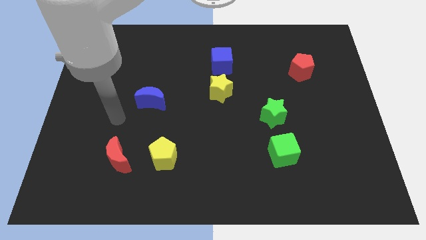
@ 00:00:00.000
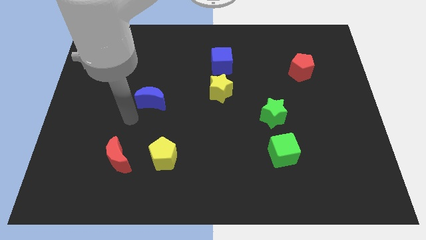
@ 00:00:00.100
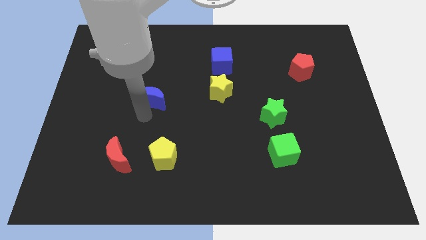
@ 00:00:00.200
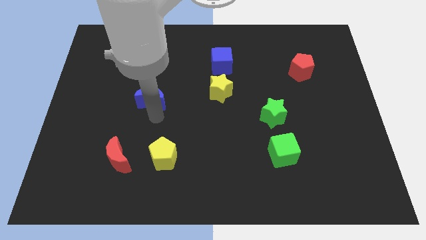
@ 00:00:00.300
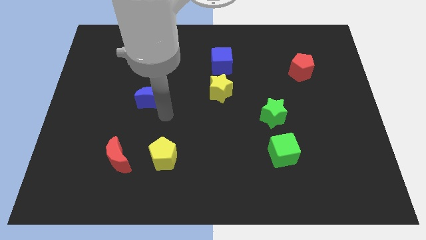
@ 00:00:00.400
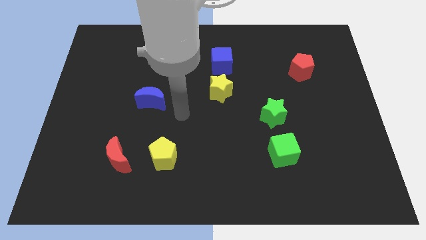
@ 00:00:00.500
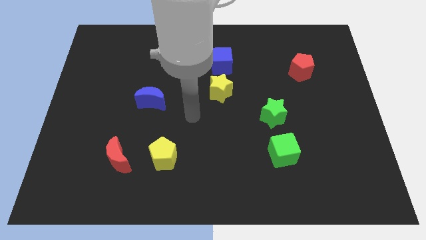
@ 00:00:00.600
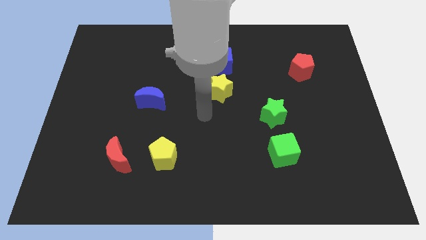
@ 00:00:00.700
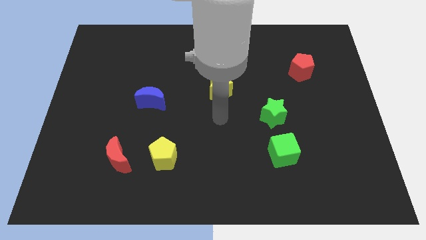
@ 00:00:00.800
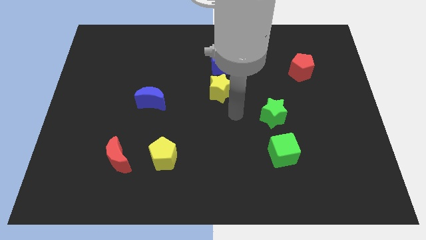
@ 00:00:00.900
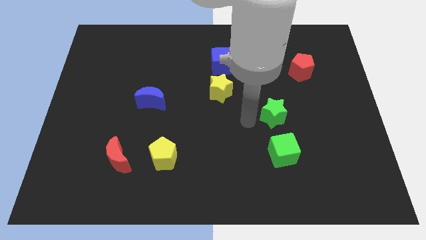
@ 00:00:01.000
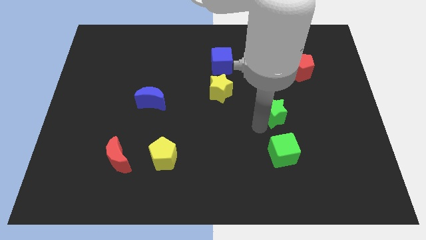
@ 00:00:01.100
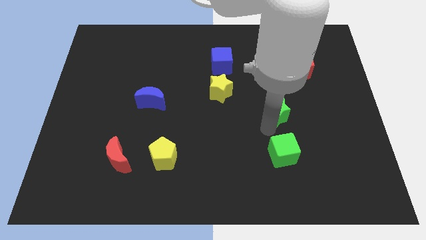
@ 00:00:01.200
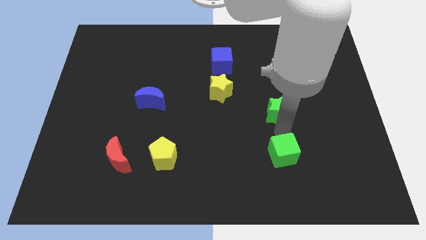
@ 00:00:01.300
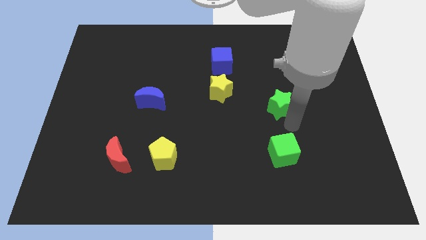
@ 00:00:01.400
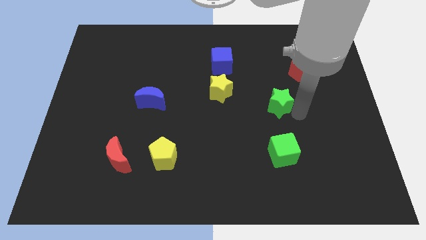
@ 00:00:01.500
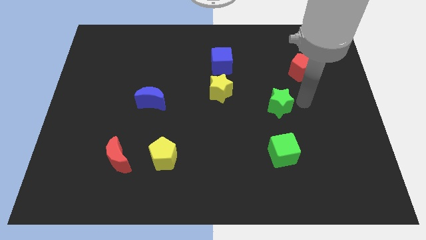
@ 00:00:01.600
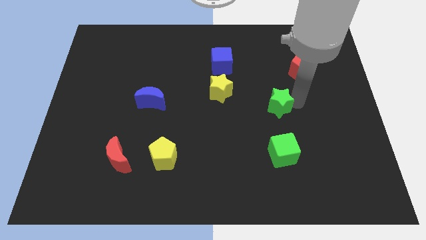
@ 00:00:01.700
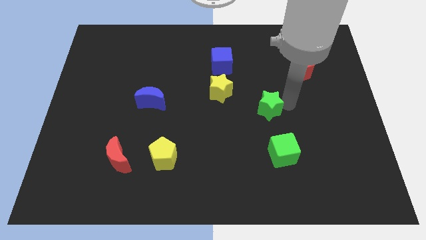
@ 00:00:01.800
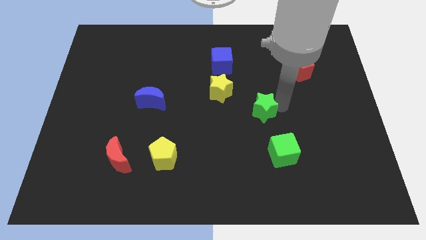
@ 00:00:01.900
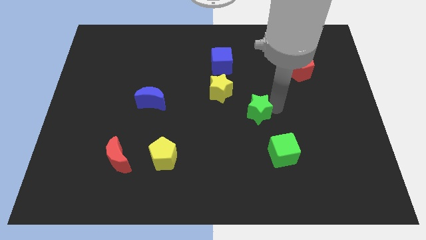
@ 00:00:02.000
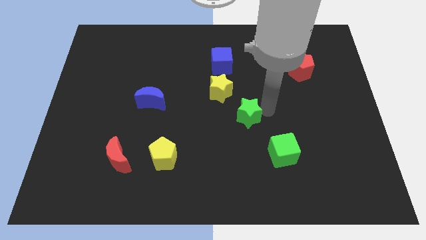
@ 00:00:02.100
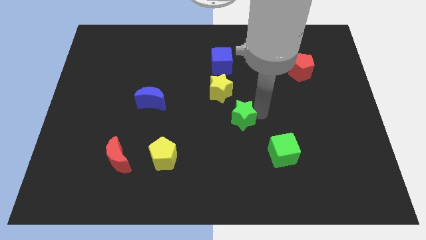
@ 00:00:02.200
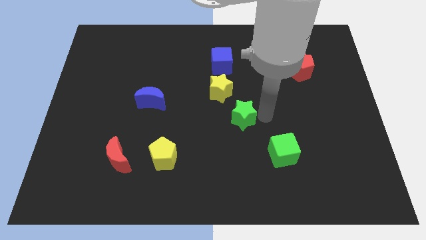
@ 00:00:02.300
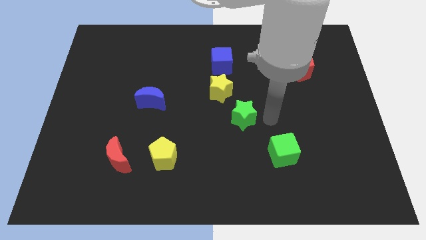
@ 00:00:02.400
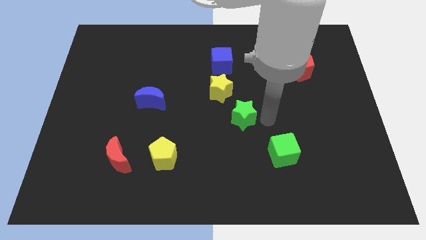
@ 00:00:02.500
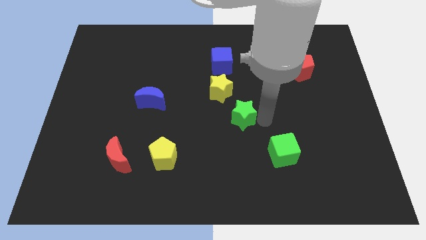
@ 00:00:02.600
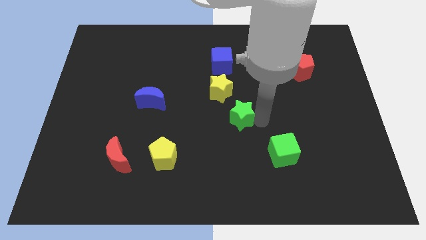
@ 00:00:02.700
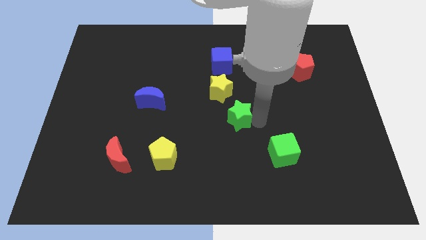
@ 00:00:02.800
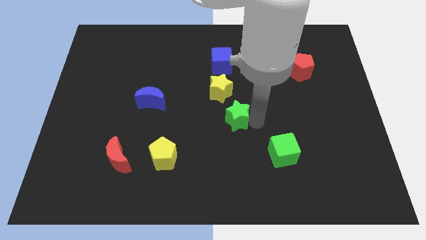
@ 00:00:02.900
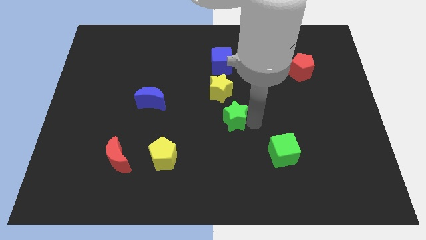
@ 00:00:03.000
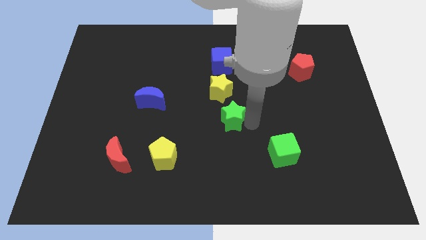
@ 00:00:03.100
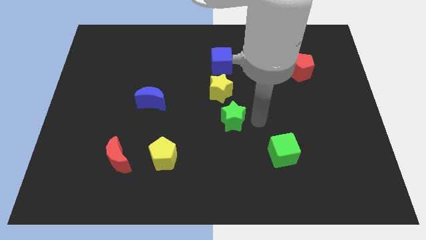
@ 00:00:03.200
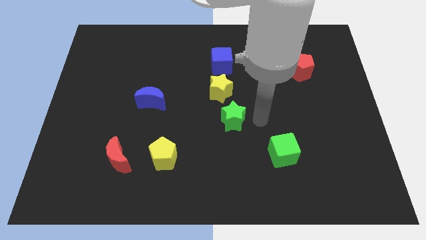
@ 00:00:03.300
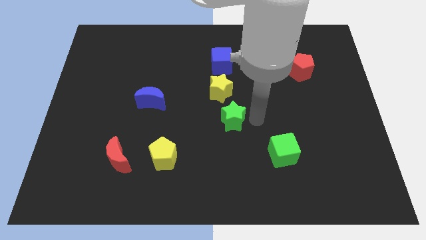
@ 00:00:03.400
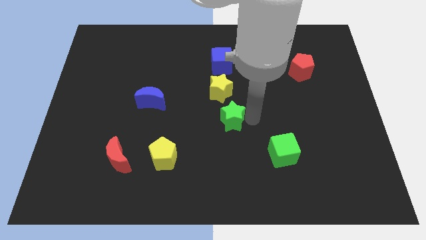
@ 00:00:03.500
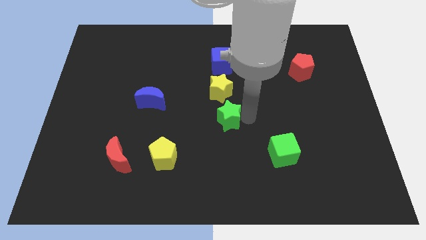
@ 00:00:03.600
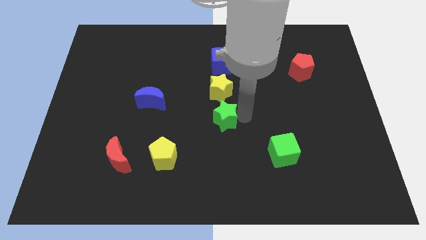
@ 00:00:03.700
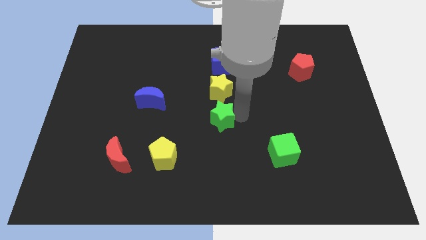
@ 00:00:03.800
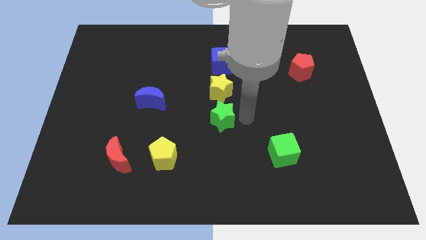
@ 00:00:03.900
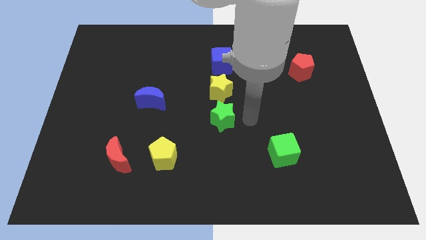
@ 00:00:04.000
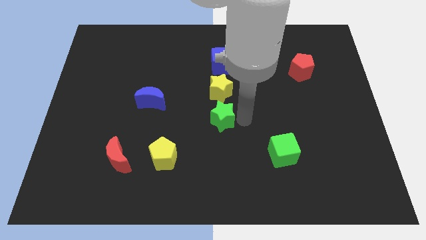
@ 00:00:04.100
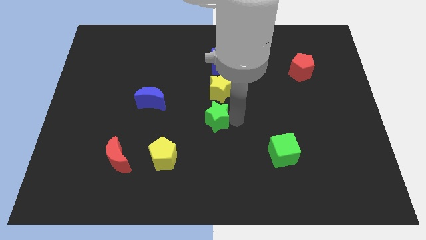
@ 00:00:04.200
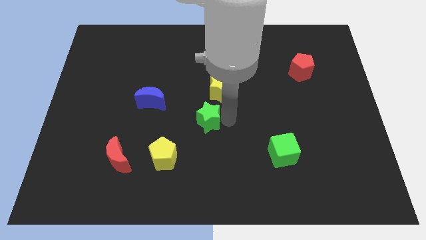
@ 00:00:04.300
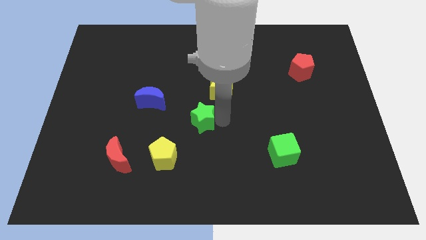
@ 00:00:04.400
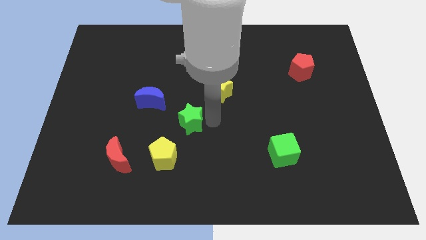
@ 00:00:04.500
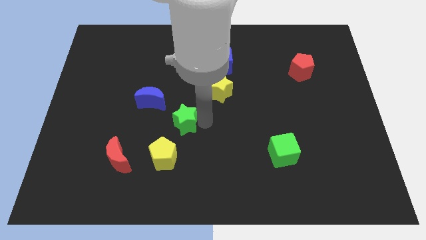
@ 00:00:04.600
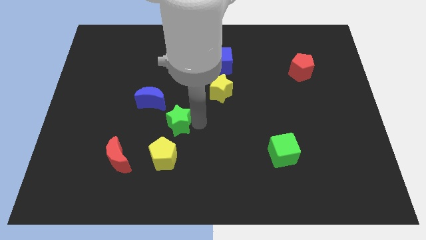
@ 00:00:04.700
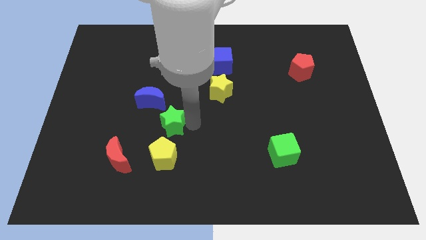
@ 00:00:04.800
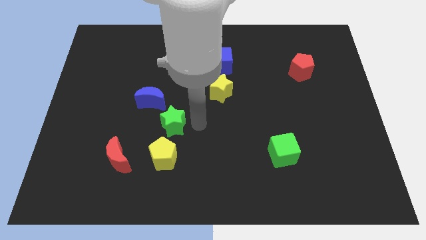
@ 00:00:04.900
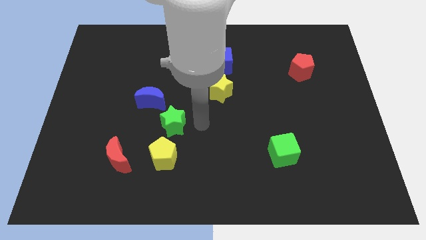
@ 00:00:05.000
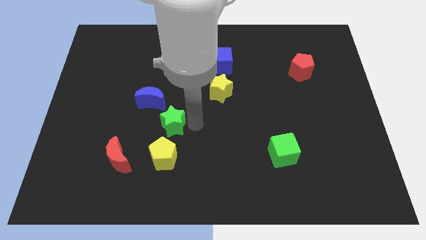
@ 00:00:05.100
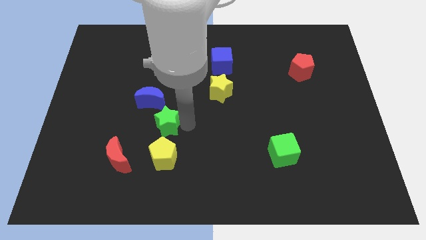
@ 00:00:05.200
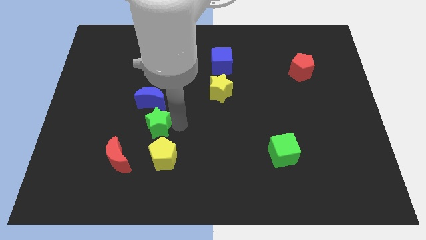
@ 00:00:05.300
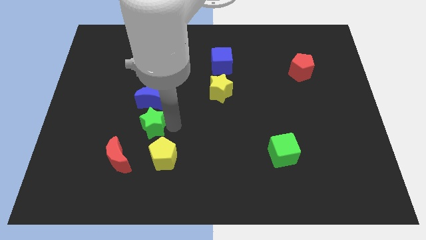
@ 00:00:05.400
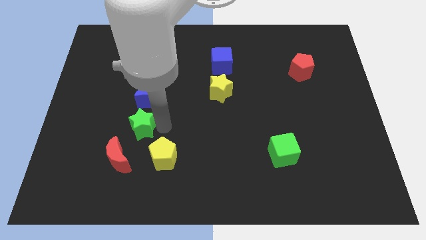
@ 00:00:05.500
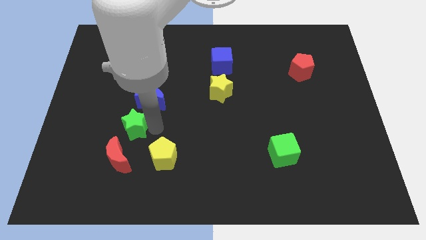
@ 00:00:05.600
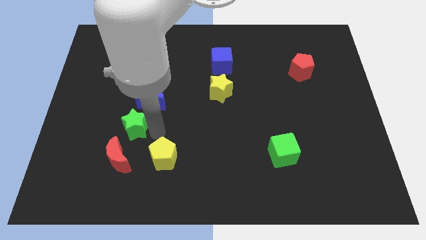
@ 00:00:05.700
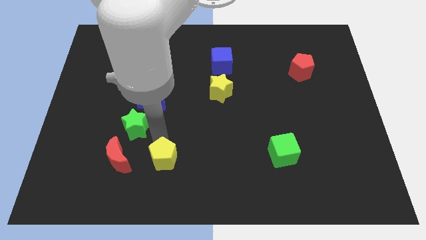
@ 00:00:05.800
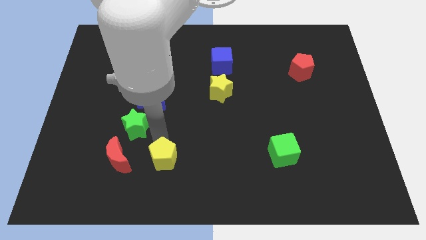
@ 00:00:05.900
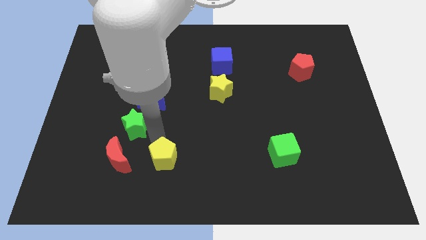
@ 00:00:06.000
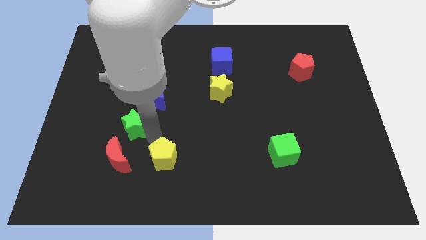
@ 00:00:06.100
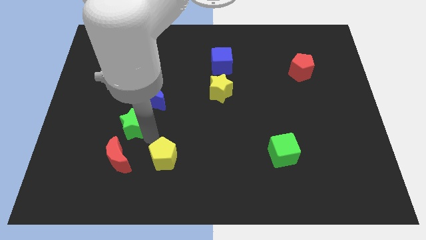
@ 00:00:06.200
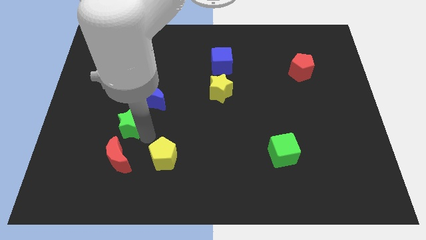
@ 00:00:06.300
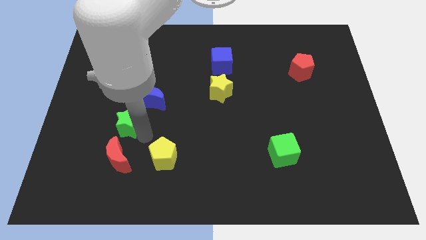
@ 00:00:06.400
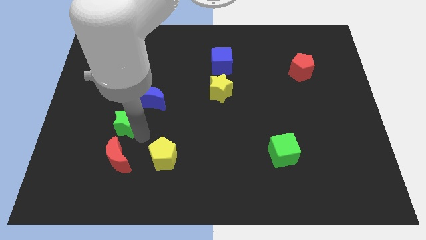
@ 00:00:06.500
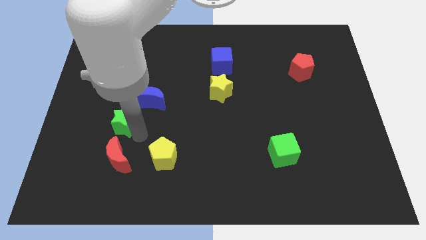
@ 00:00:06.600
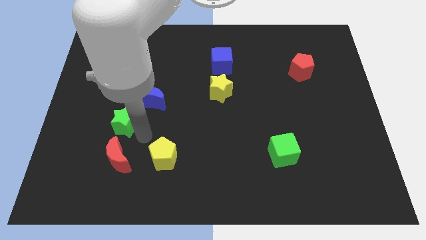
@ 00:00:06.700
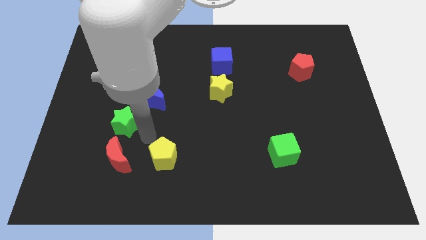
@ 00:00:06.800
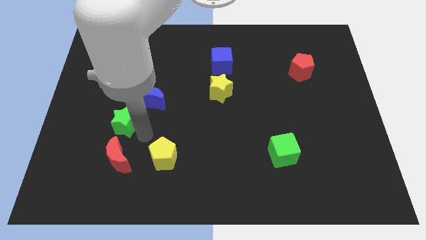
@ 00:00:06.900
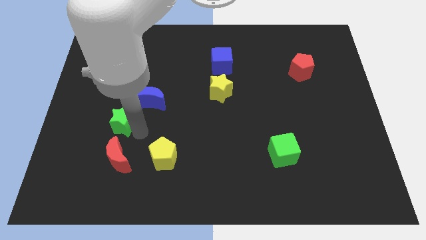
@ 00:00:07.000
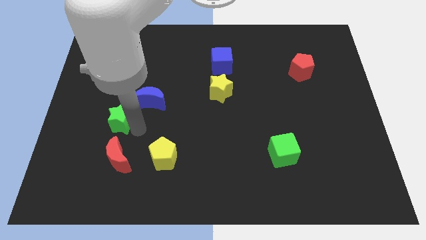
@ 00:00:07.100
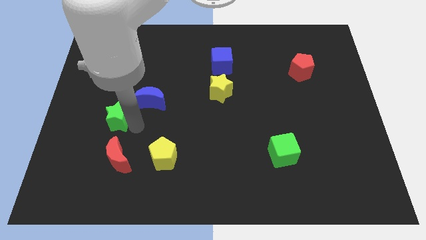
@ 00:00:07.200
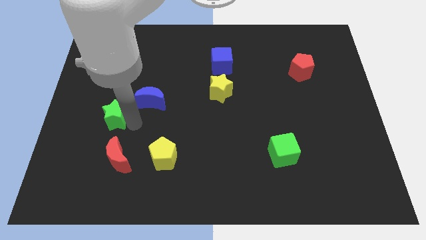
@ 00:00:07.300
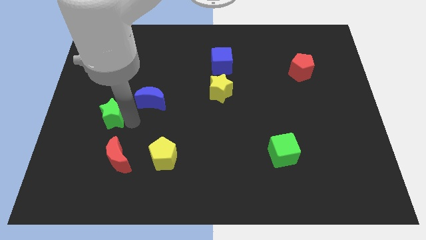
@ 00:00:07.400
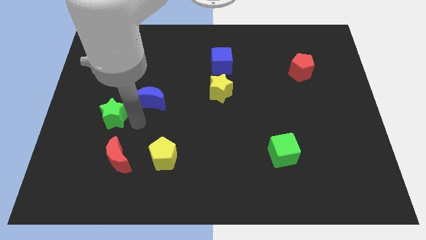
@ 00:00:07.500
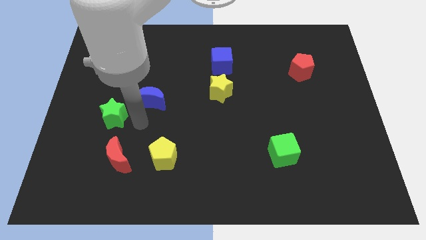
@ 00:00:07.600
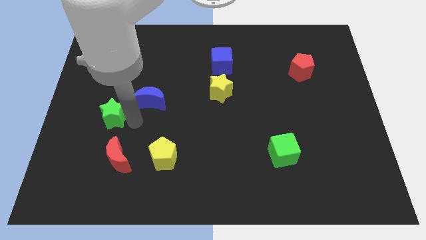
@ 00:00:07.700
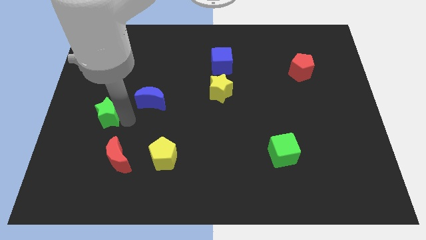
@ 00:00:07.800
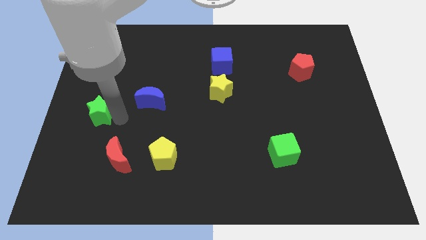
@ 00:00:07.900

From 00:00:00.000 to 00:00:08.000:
push the green star to the center left
